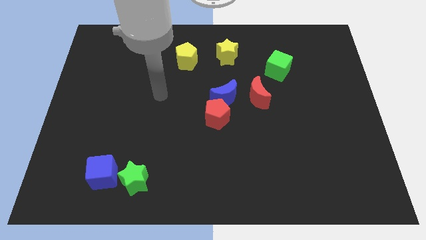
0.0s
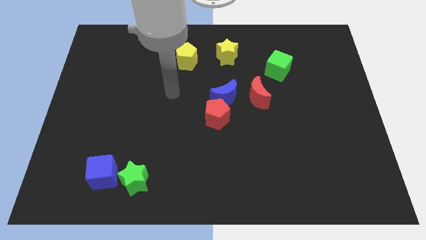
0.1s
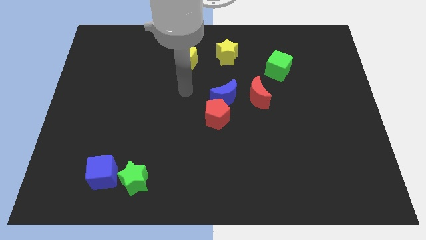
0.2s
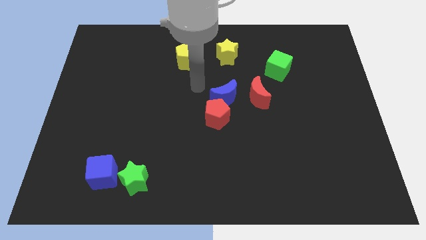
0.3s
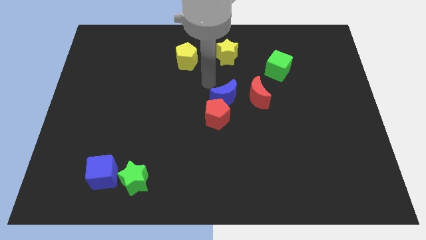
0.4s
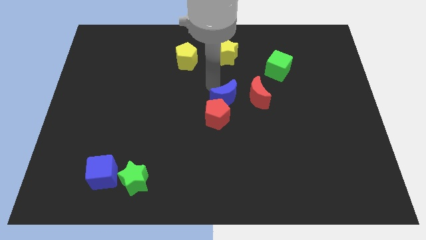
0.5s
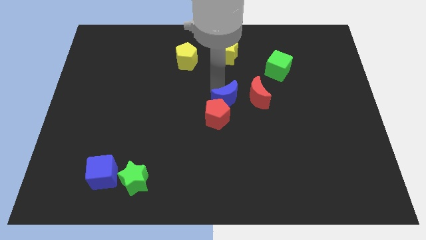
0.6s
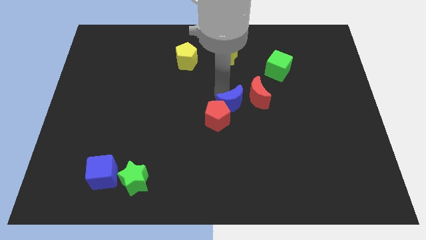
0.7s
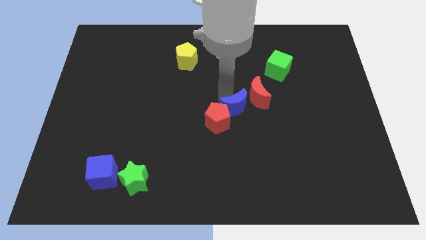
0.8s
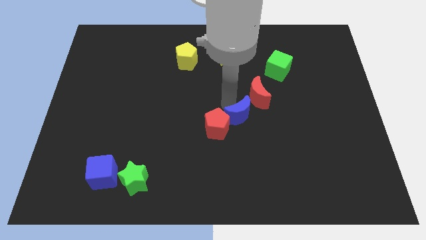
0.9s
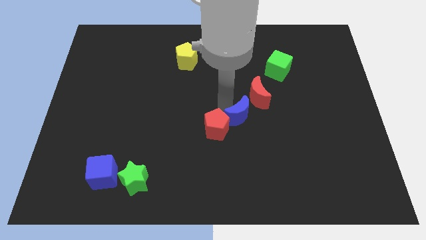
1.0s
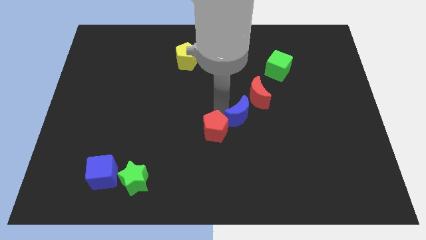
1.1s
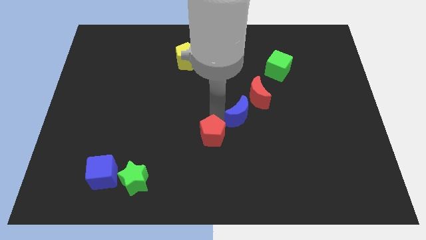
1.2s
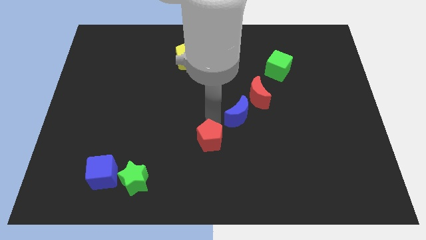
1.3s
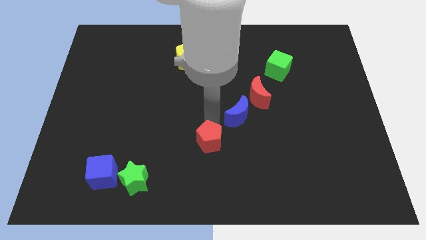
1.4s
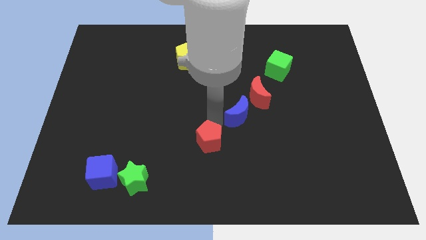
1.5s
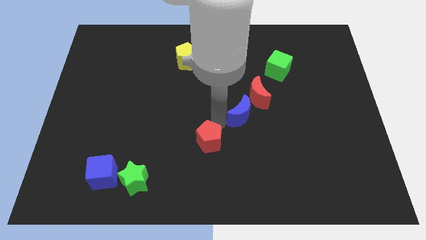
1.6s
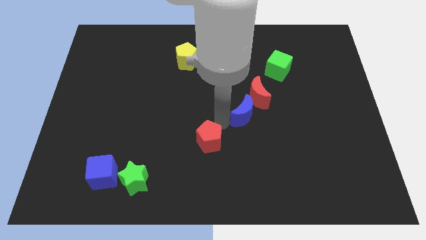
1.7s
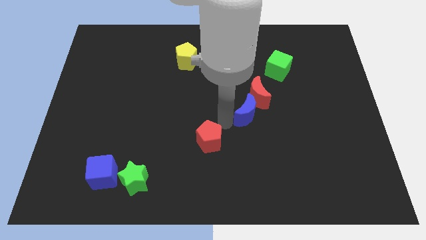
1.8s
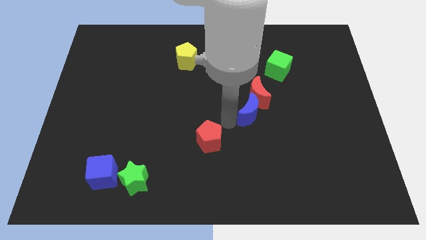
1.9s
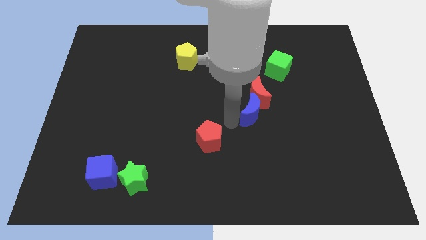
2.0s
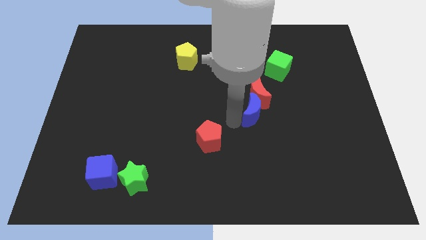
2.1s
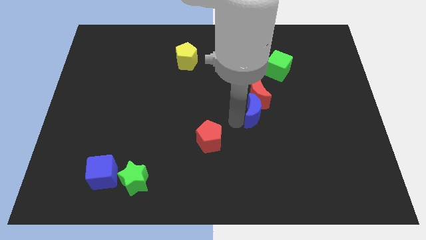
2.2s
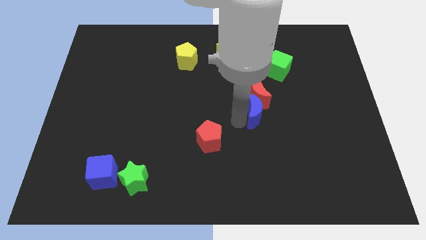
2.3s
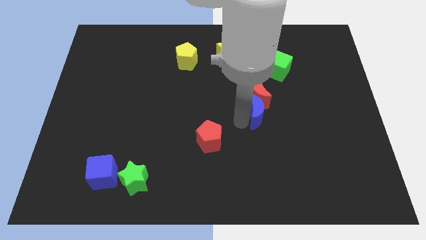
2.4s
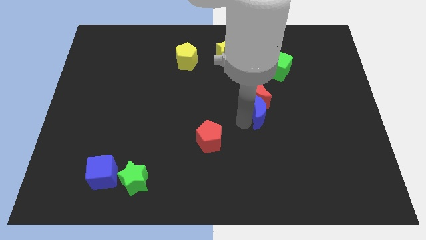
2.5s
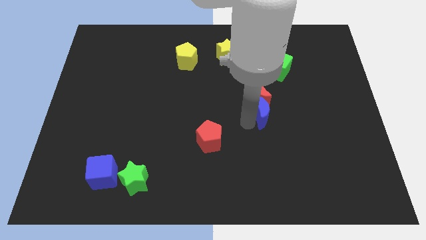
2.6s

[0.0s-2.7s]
slightly move the blue moon to the right

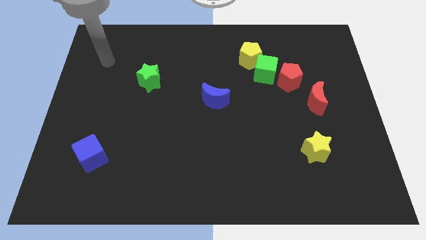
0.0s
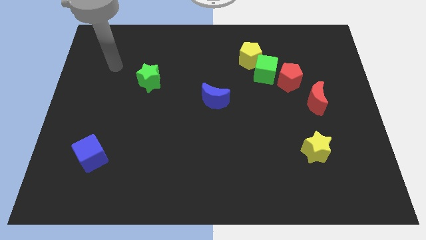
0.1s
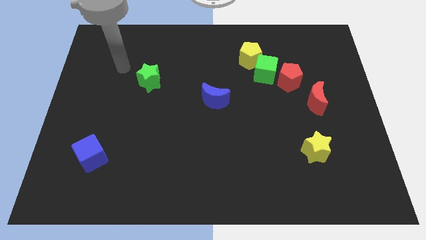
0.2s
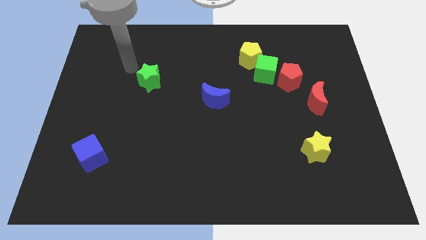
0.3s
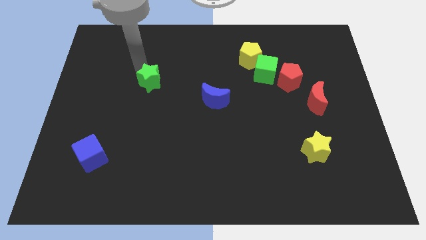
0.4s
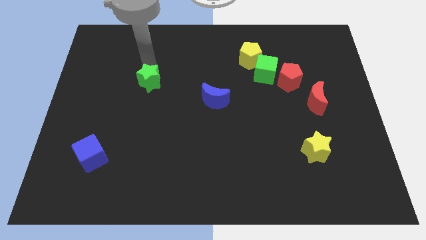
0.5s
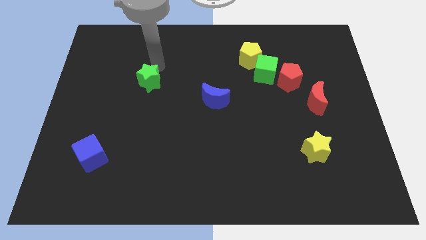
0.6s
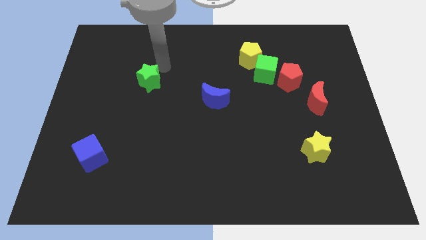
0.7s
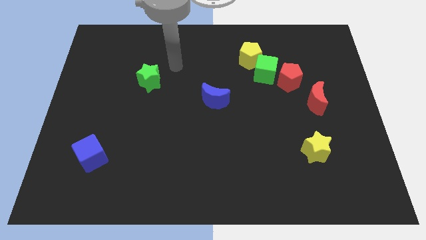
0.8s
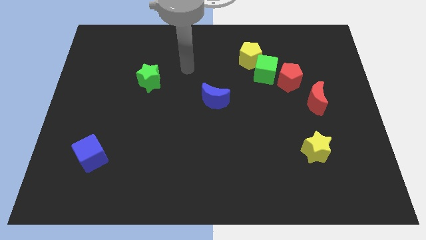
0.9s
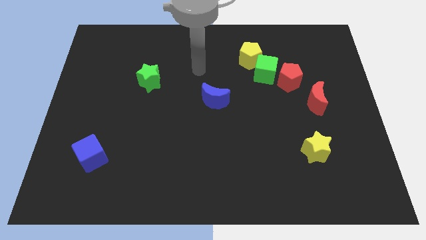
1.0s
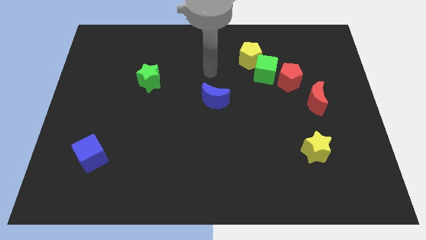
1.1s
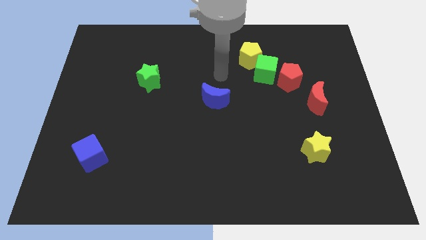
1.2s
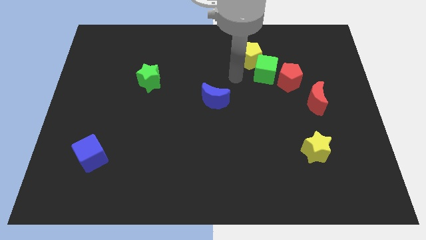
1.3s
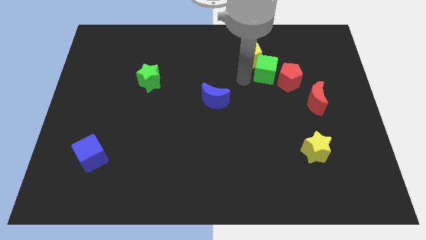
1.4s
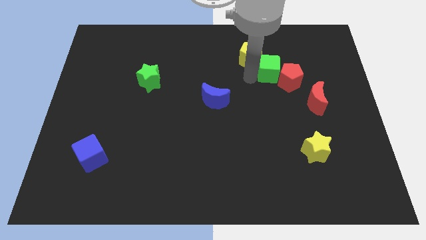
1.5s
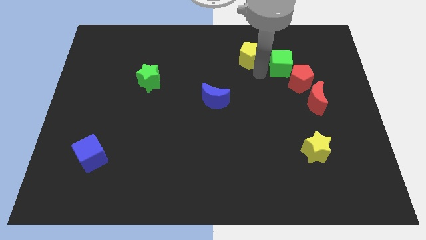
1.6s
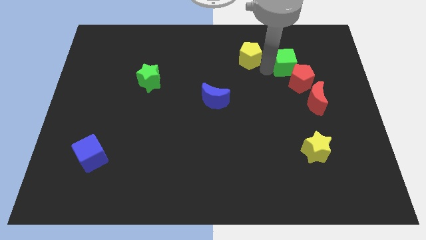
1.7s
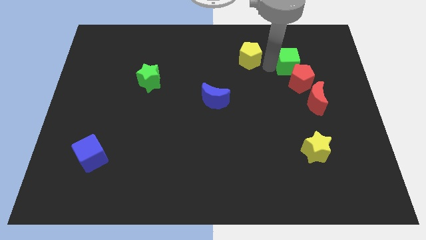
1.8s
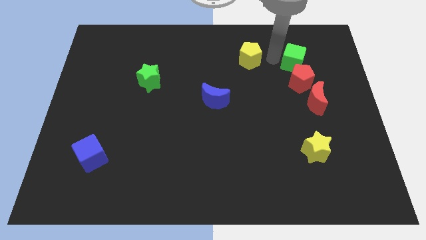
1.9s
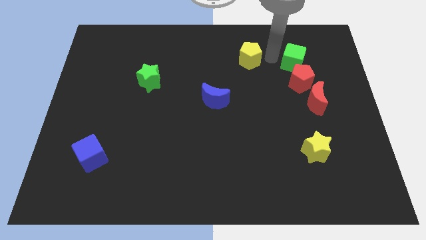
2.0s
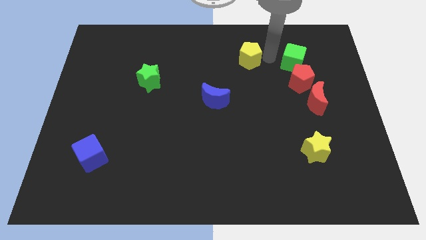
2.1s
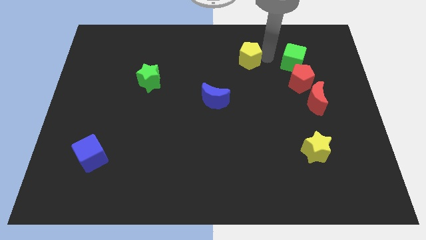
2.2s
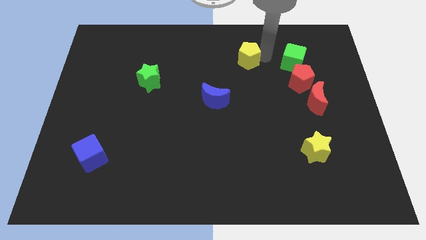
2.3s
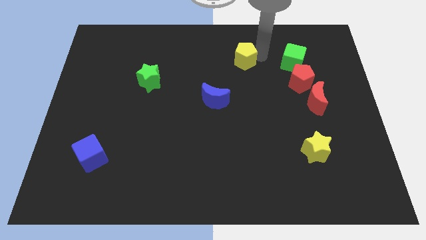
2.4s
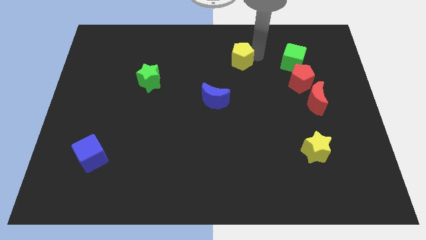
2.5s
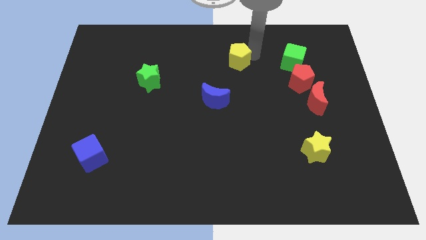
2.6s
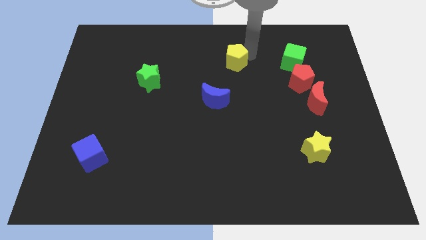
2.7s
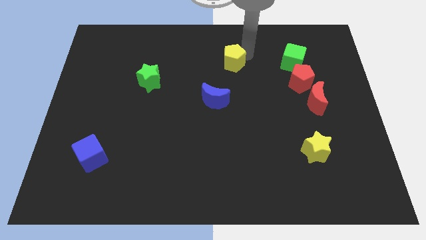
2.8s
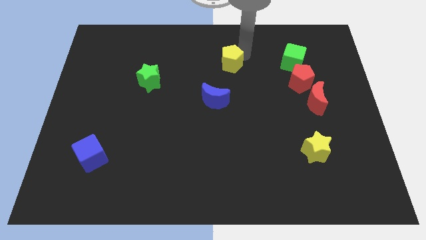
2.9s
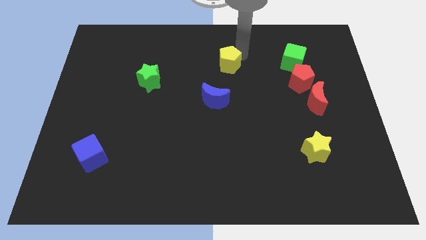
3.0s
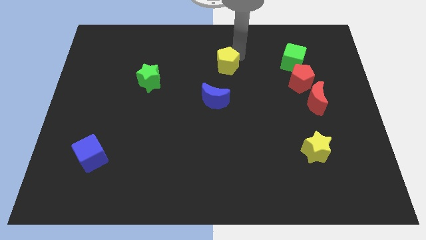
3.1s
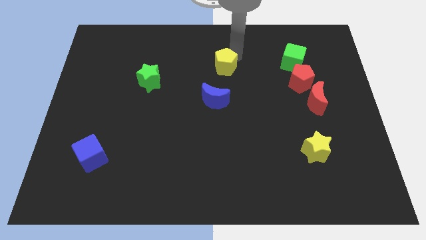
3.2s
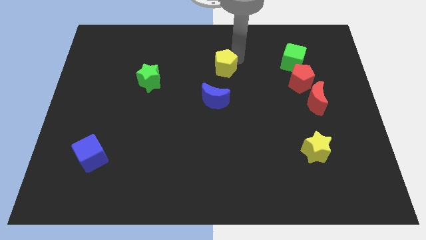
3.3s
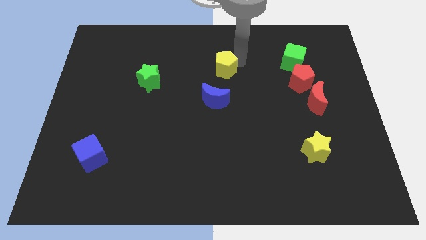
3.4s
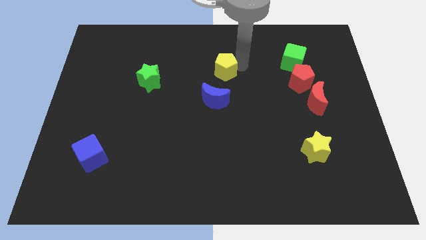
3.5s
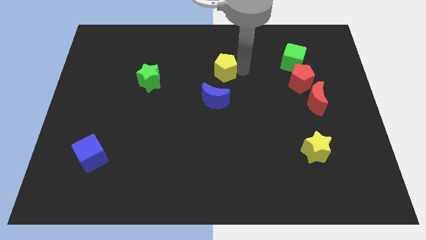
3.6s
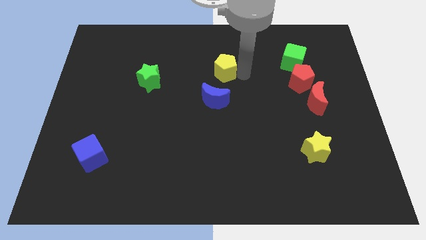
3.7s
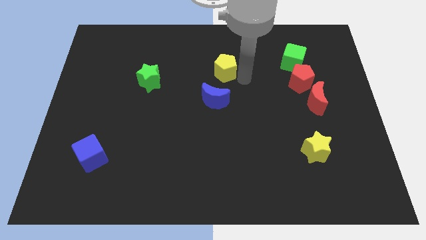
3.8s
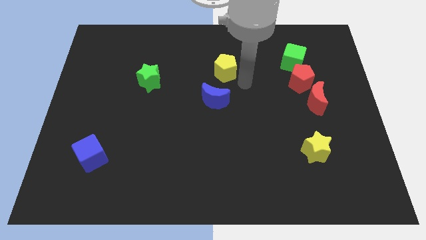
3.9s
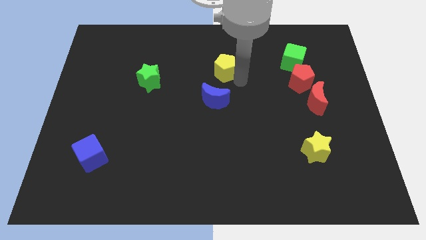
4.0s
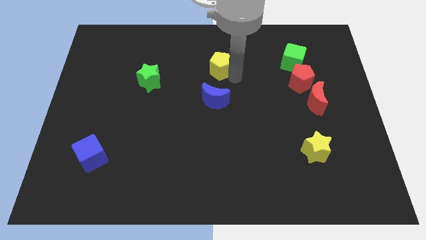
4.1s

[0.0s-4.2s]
slightly slide the yellow pentagon to the left

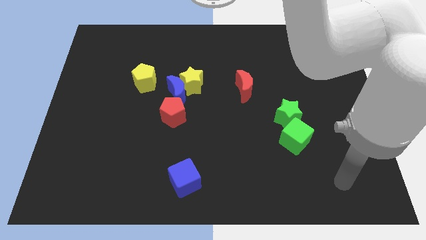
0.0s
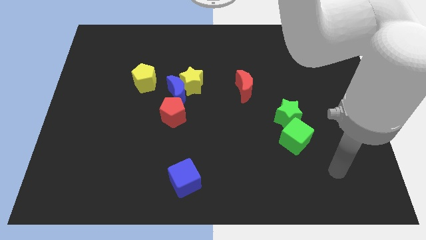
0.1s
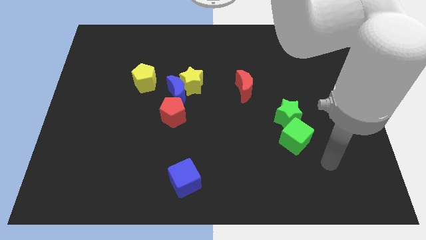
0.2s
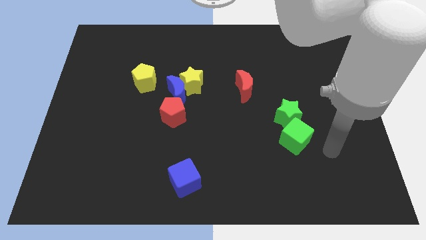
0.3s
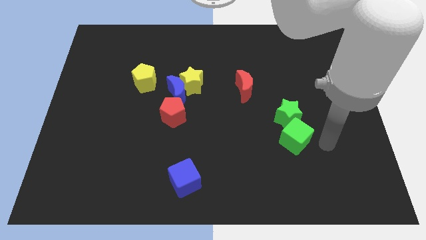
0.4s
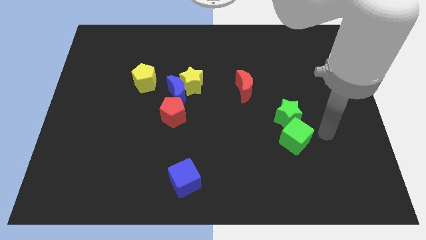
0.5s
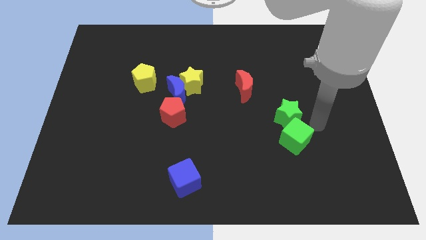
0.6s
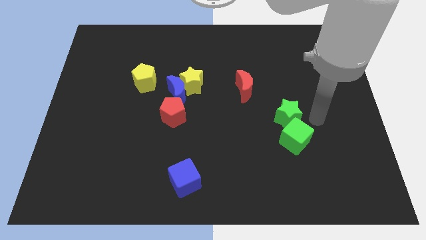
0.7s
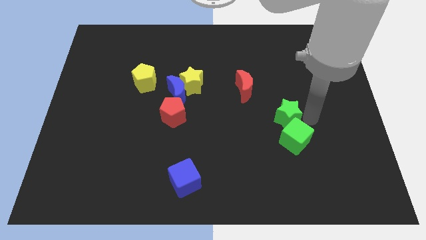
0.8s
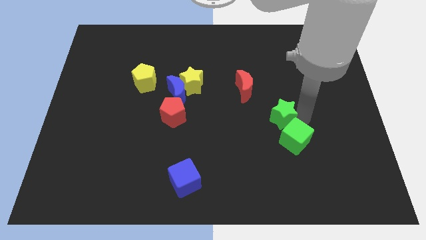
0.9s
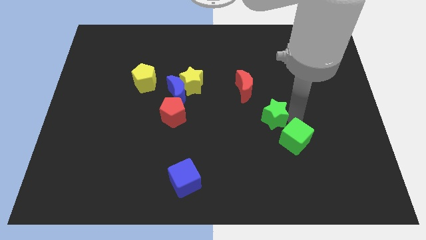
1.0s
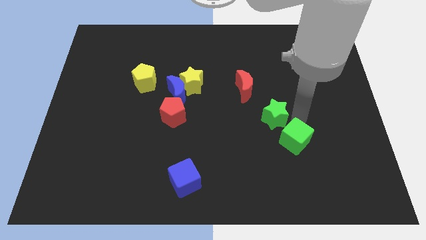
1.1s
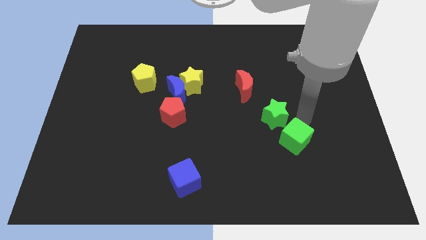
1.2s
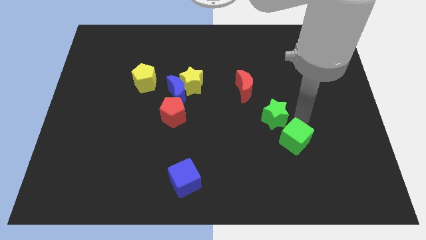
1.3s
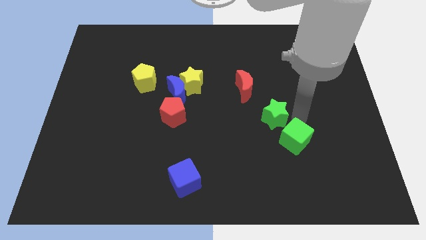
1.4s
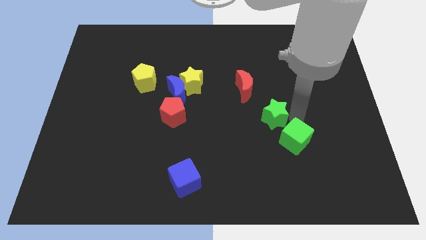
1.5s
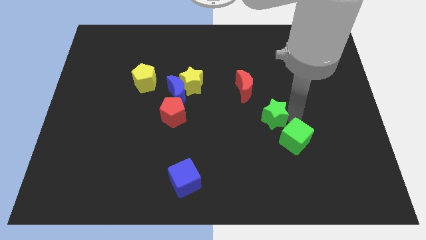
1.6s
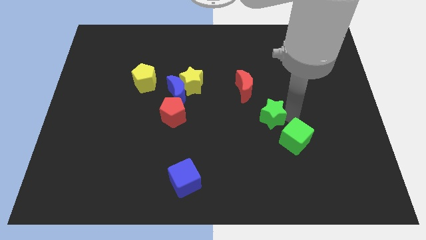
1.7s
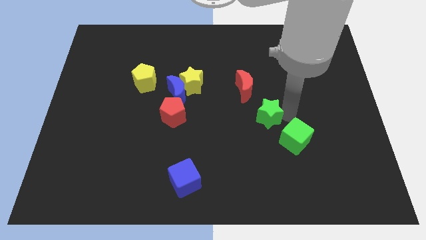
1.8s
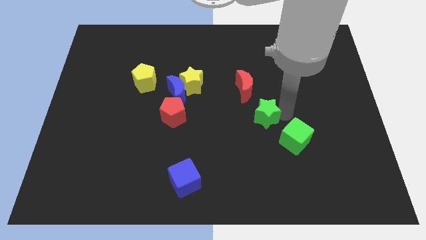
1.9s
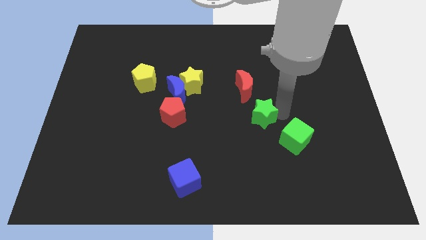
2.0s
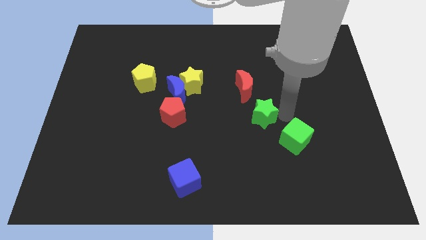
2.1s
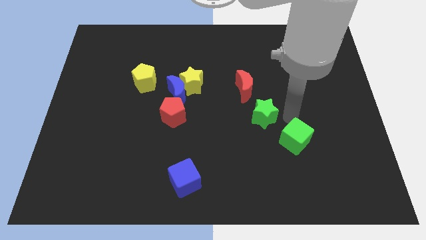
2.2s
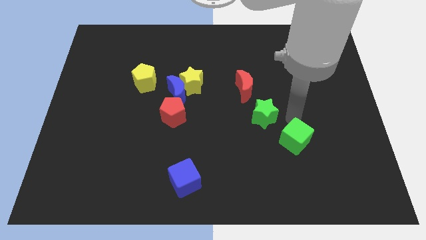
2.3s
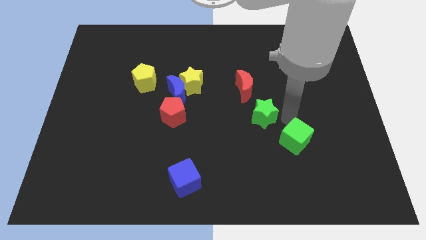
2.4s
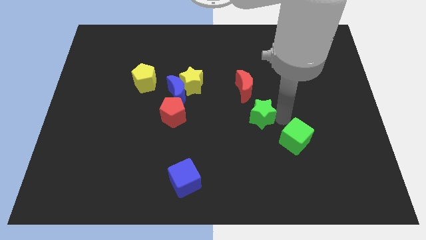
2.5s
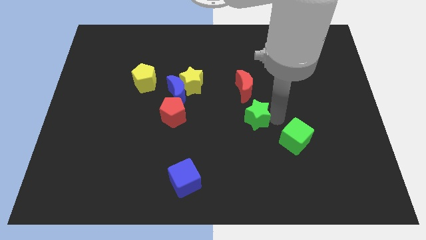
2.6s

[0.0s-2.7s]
move the green star left slightly
